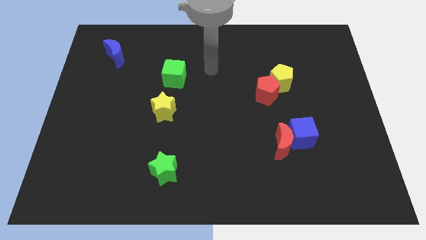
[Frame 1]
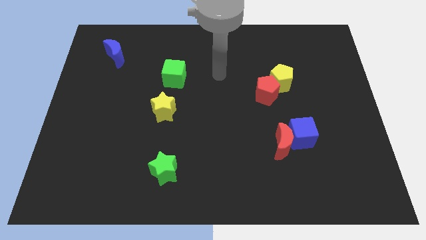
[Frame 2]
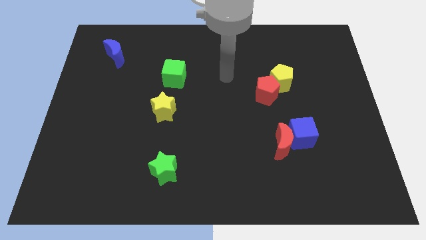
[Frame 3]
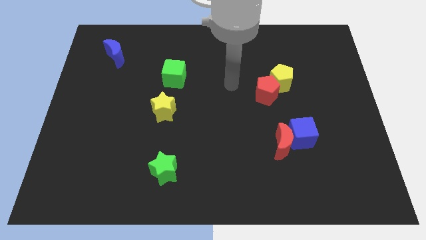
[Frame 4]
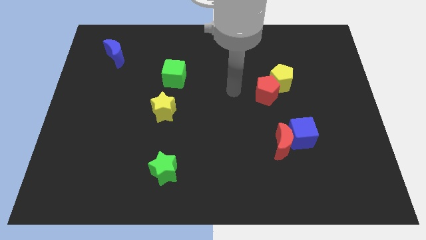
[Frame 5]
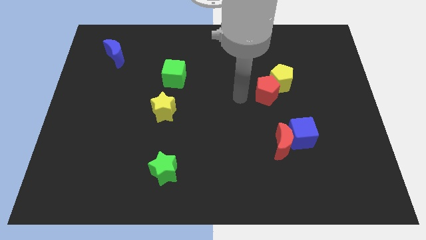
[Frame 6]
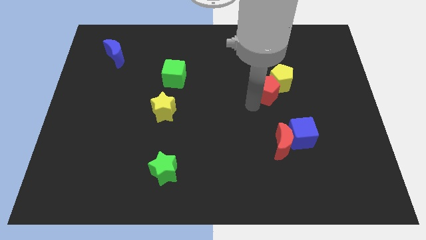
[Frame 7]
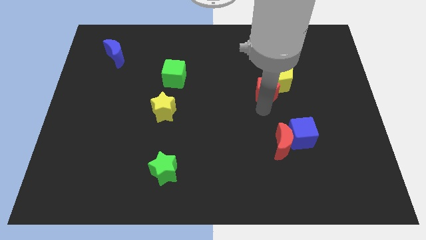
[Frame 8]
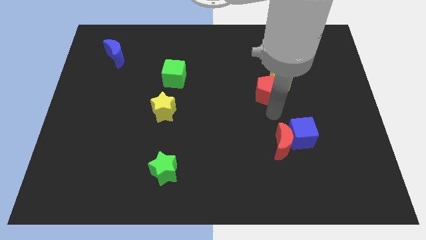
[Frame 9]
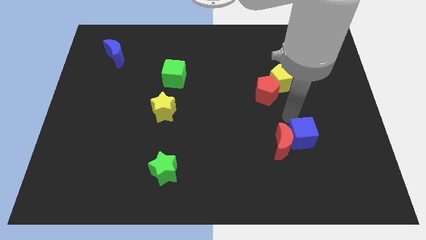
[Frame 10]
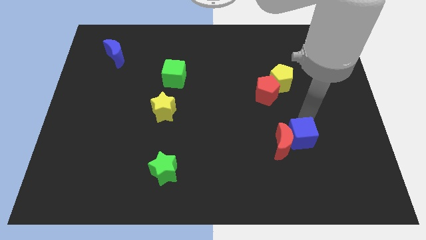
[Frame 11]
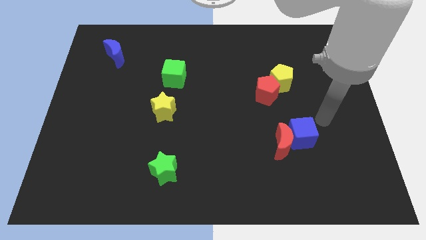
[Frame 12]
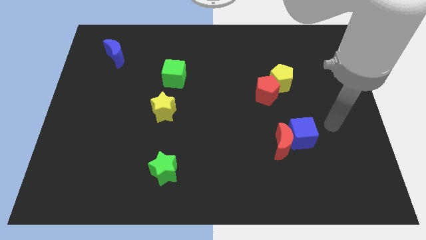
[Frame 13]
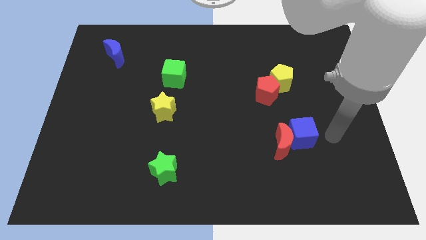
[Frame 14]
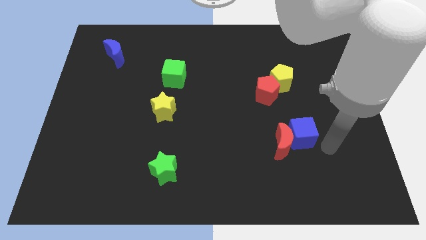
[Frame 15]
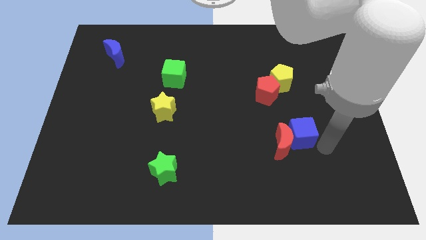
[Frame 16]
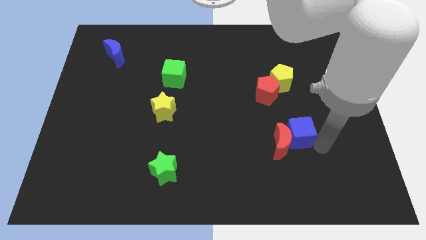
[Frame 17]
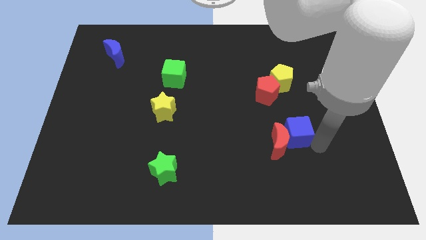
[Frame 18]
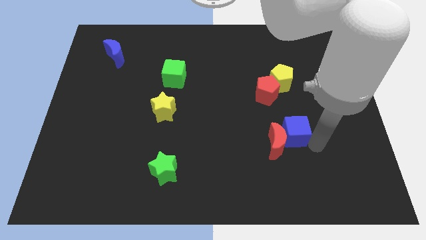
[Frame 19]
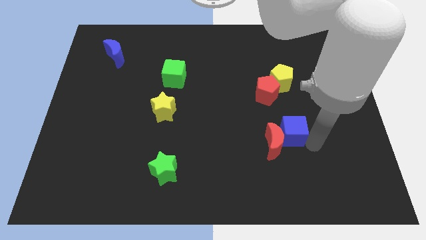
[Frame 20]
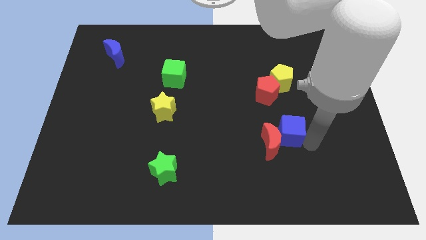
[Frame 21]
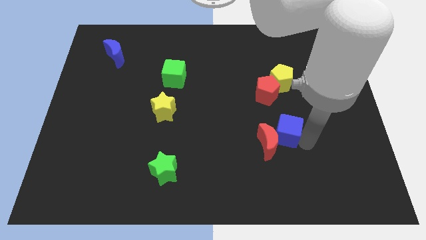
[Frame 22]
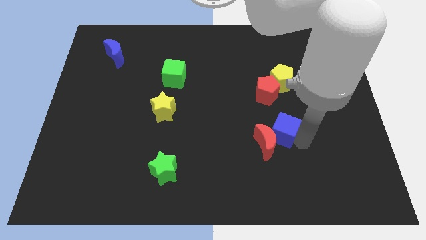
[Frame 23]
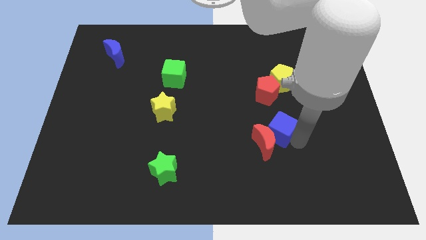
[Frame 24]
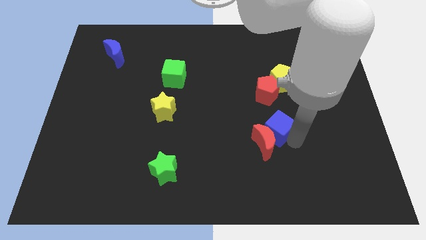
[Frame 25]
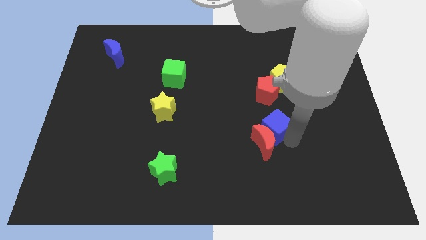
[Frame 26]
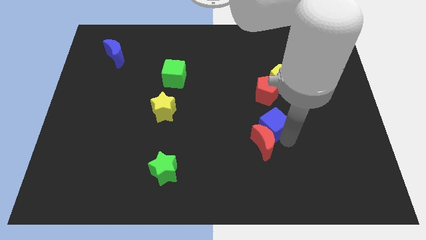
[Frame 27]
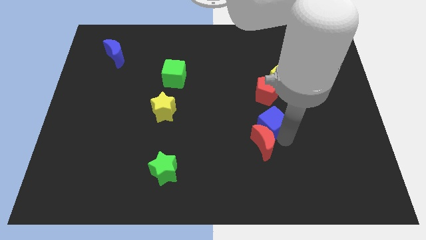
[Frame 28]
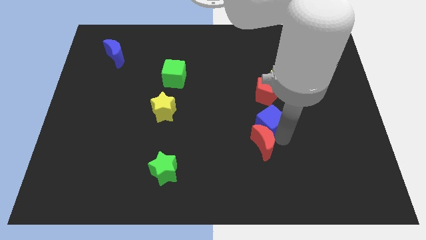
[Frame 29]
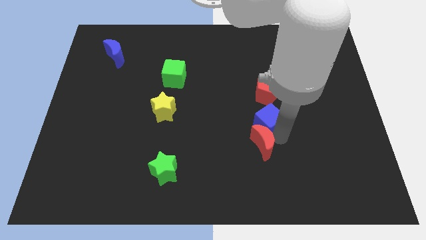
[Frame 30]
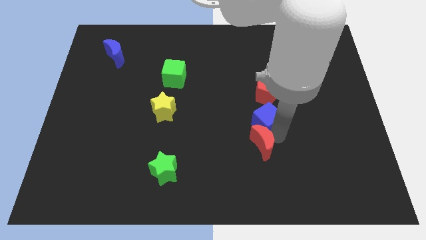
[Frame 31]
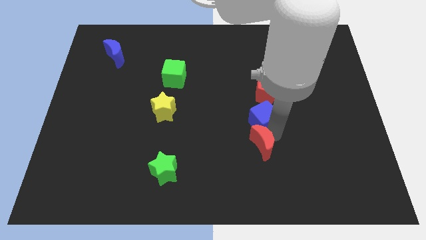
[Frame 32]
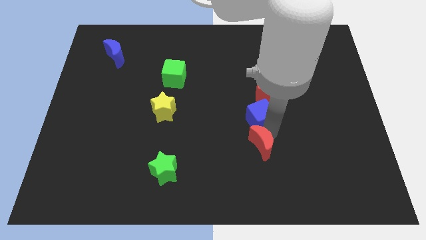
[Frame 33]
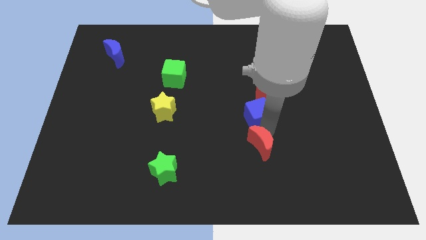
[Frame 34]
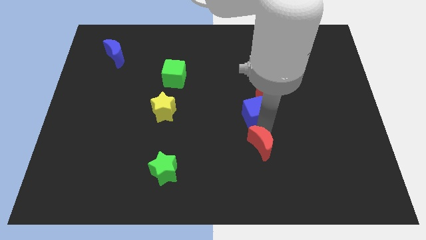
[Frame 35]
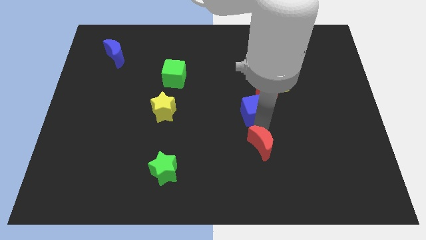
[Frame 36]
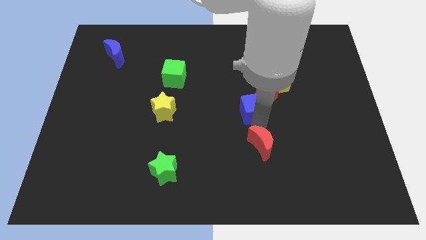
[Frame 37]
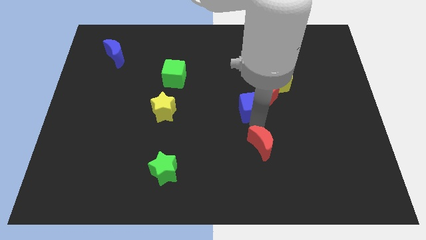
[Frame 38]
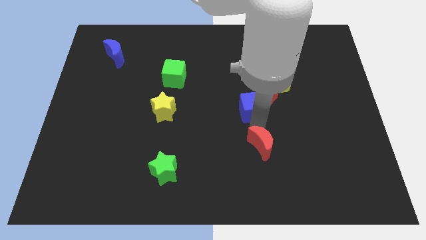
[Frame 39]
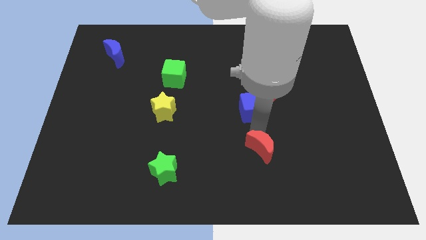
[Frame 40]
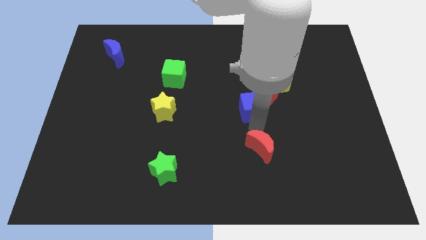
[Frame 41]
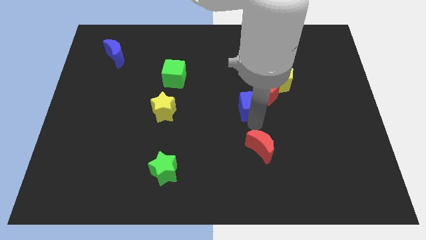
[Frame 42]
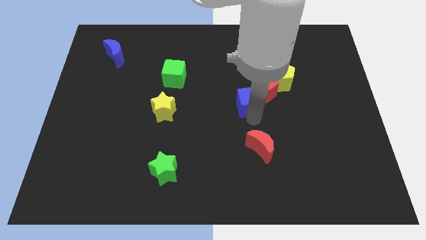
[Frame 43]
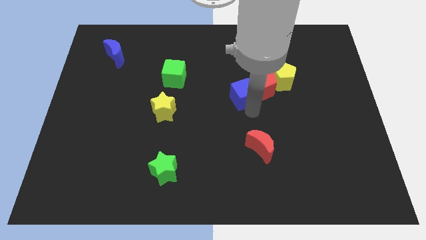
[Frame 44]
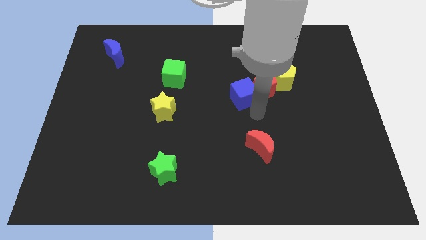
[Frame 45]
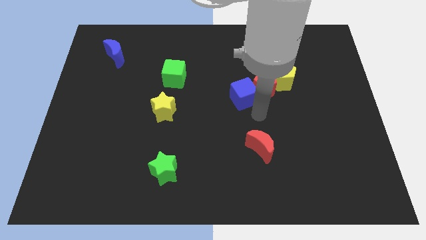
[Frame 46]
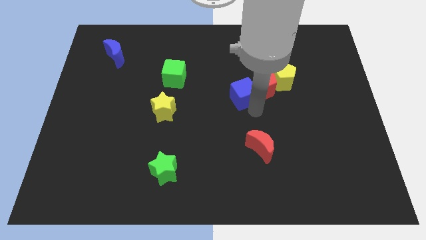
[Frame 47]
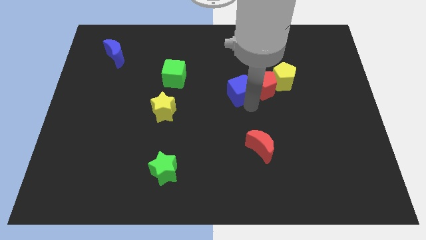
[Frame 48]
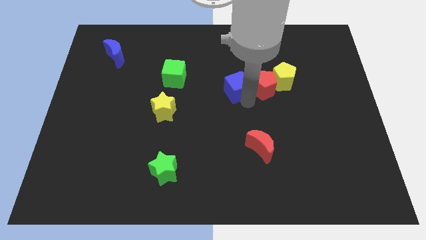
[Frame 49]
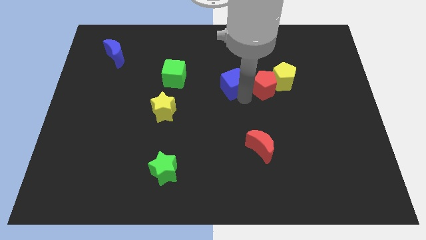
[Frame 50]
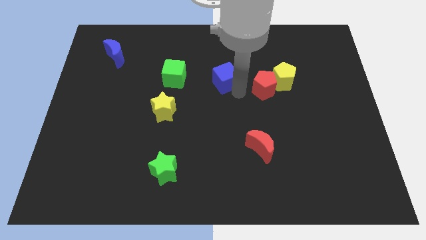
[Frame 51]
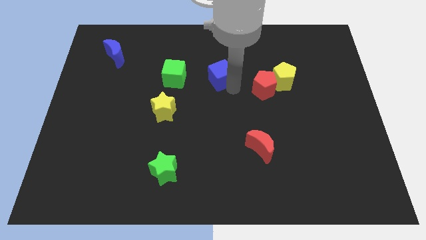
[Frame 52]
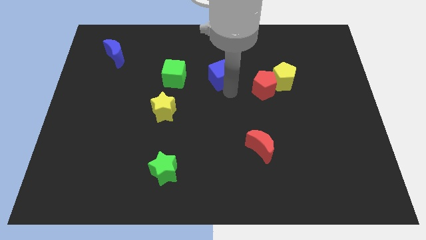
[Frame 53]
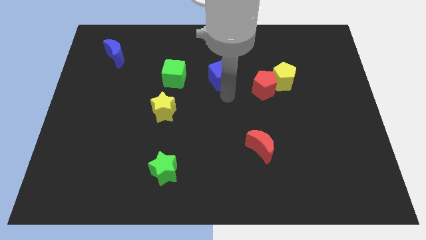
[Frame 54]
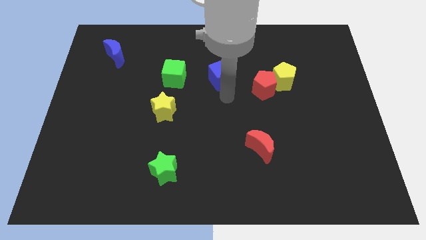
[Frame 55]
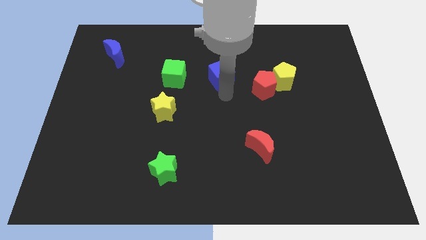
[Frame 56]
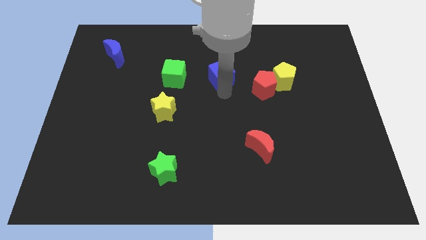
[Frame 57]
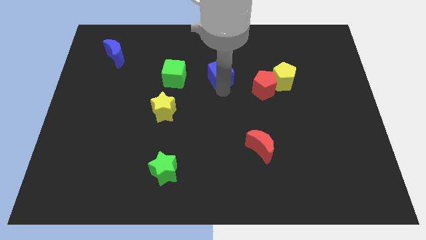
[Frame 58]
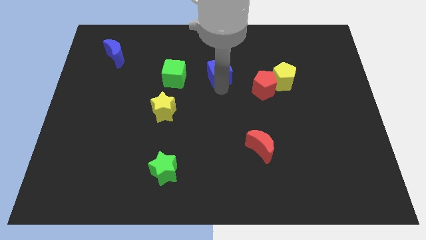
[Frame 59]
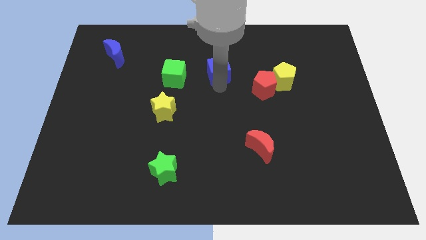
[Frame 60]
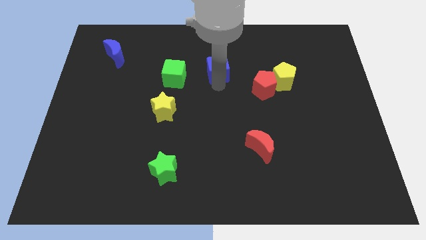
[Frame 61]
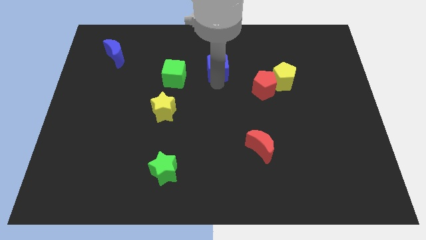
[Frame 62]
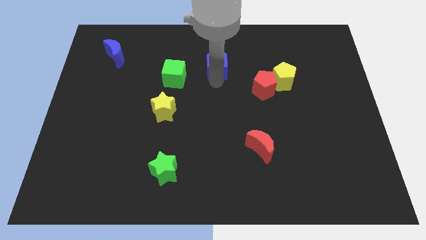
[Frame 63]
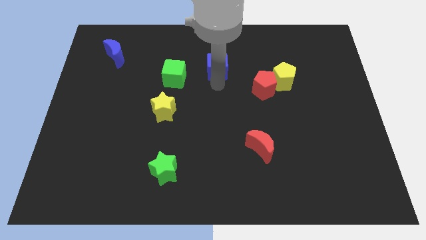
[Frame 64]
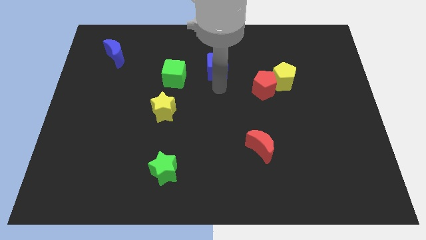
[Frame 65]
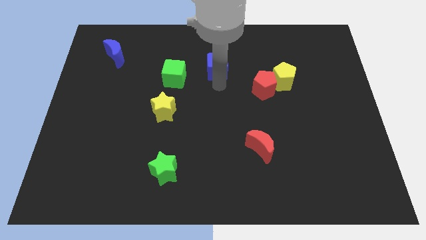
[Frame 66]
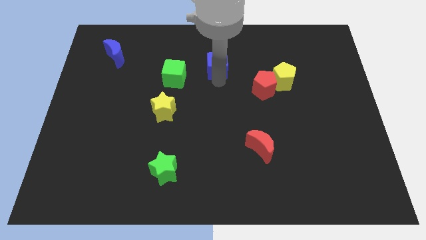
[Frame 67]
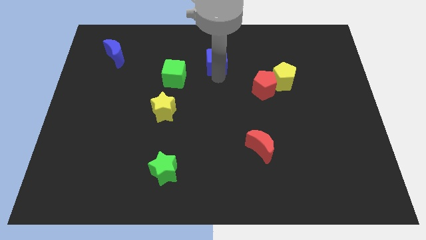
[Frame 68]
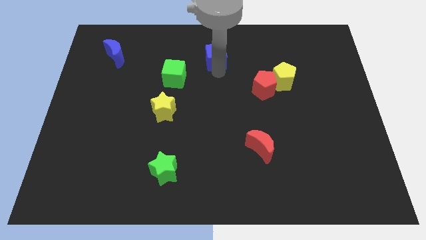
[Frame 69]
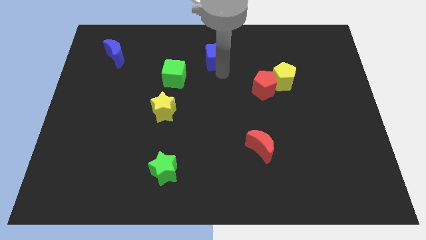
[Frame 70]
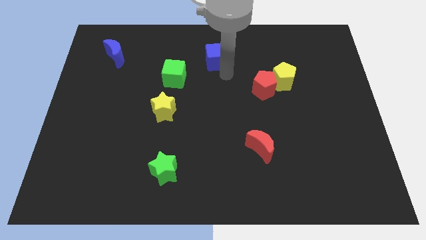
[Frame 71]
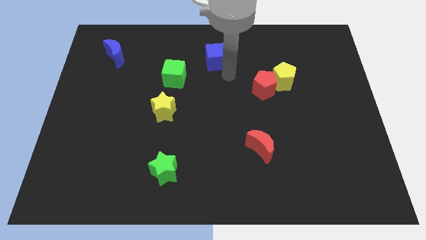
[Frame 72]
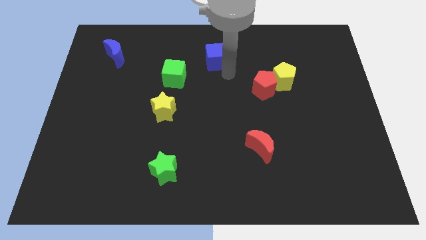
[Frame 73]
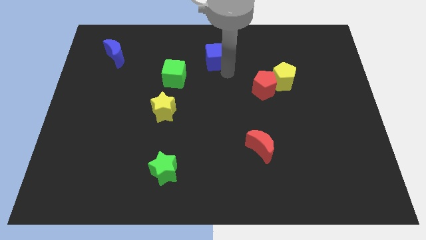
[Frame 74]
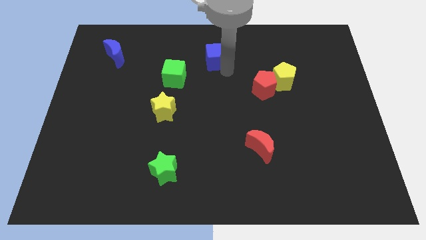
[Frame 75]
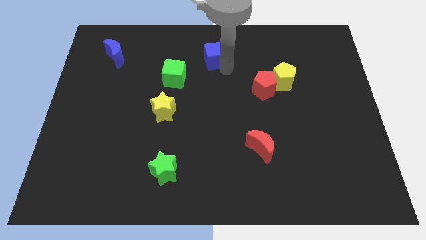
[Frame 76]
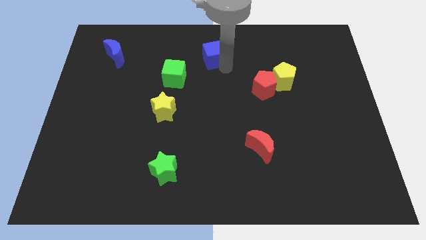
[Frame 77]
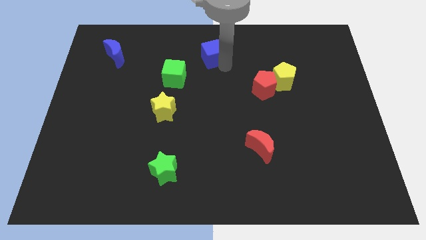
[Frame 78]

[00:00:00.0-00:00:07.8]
move the blue cube to the top side
